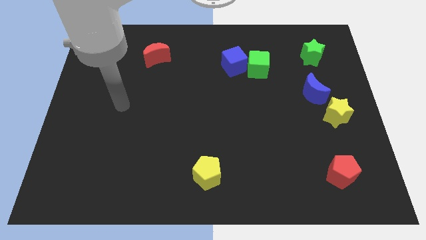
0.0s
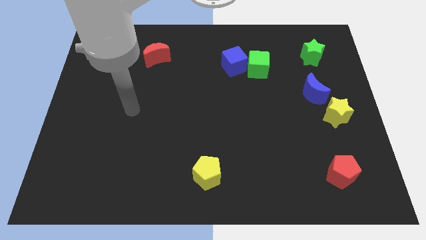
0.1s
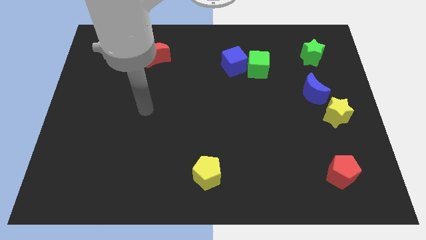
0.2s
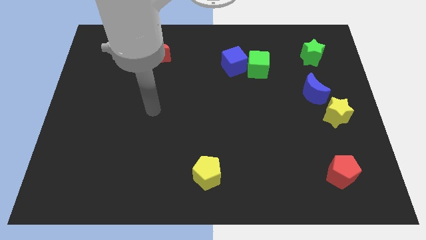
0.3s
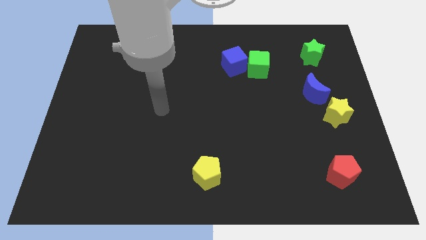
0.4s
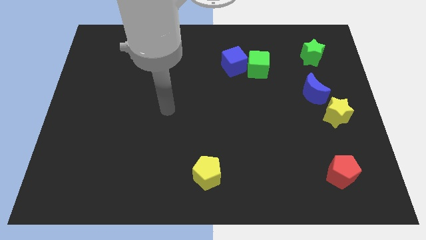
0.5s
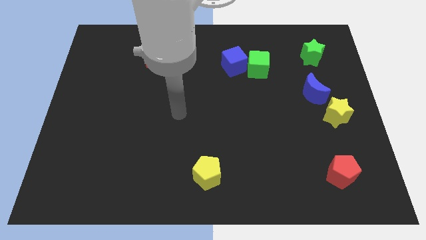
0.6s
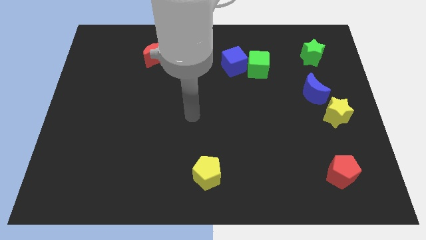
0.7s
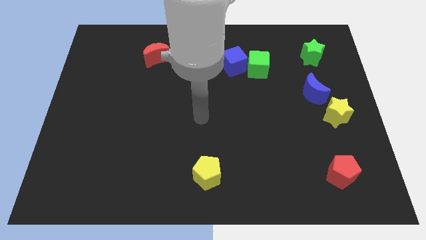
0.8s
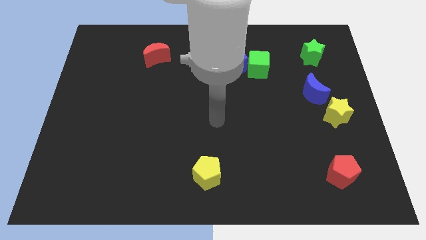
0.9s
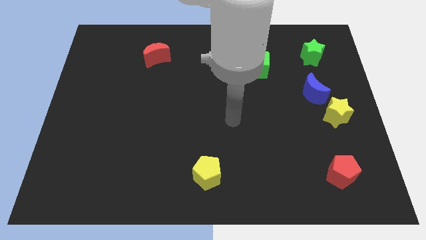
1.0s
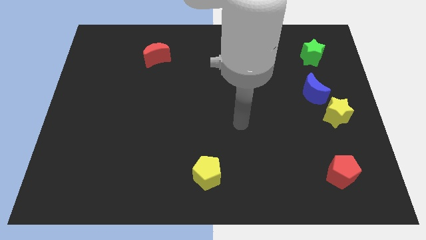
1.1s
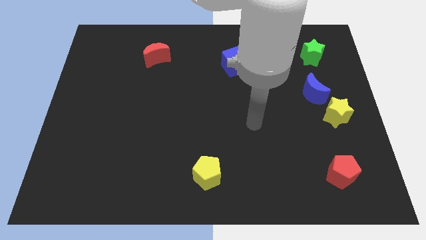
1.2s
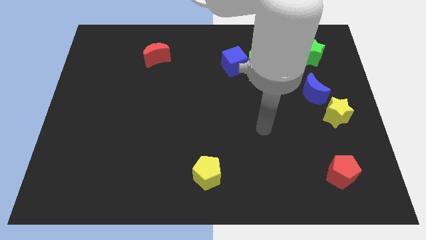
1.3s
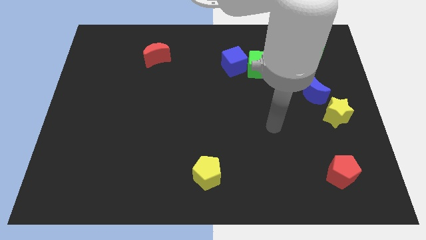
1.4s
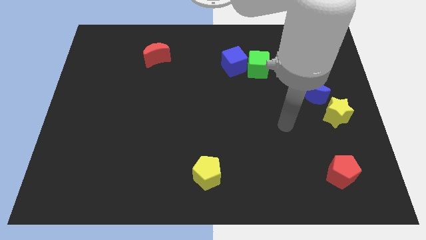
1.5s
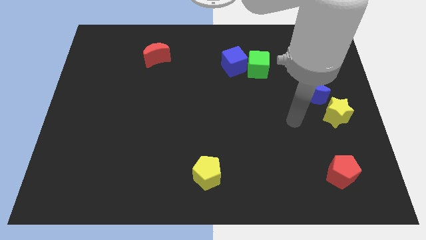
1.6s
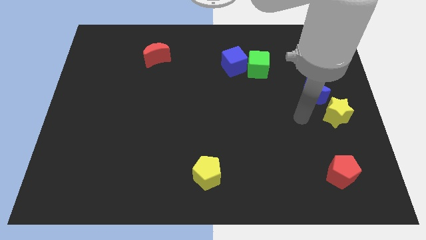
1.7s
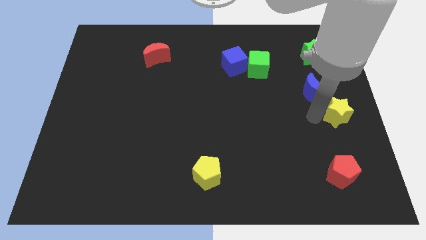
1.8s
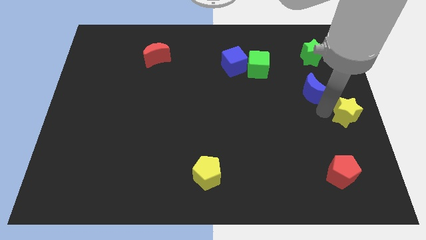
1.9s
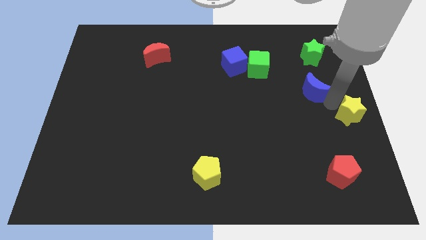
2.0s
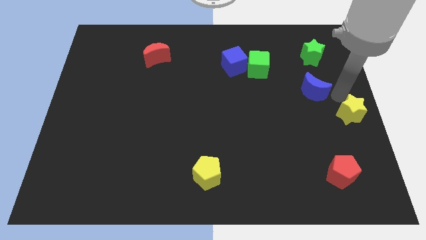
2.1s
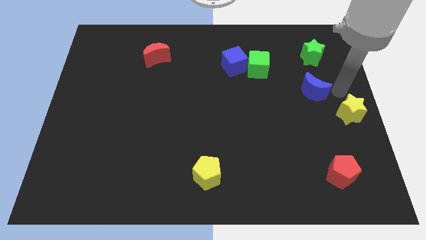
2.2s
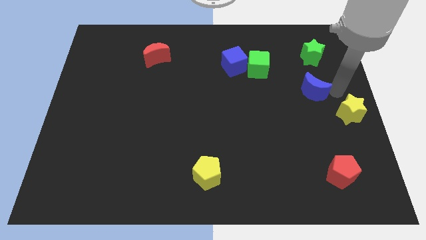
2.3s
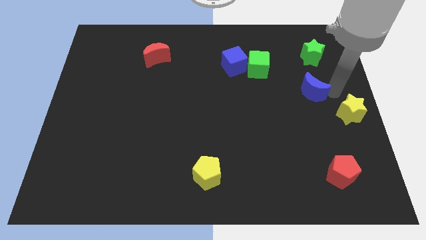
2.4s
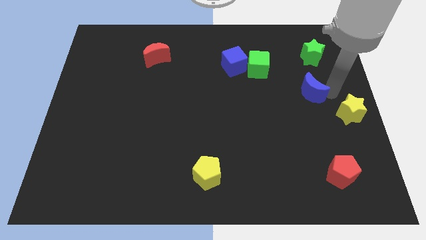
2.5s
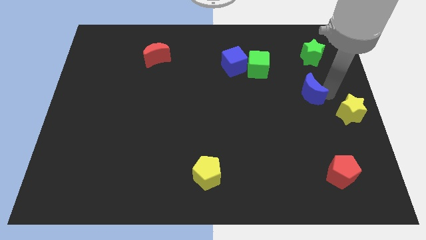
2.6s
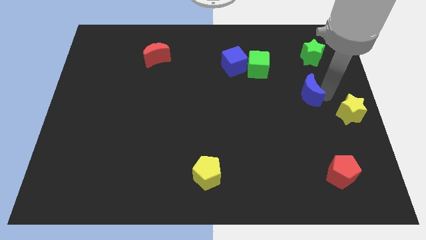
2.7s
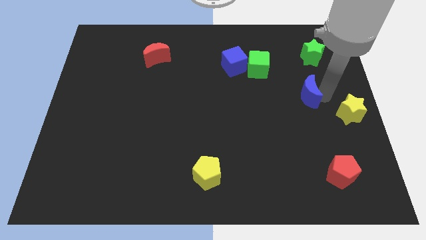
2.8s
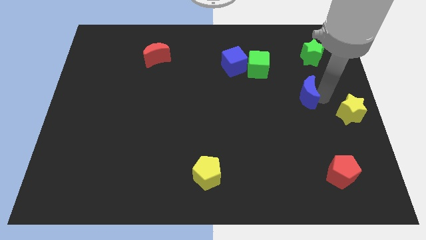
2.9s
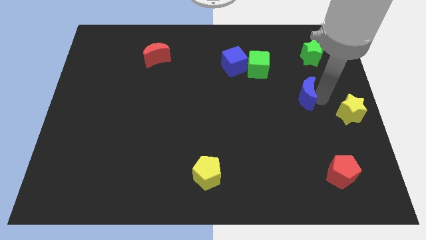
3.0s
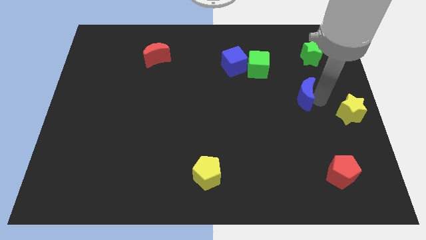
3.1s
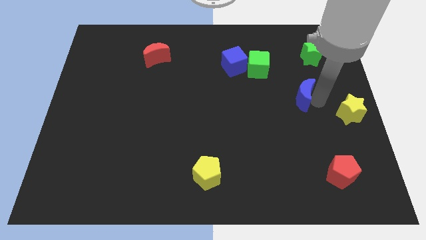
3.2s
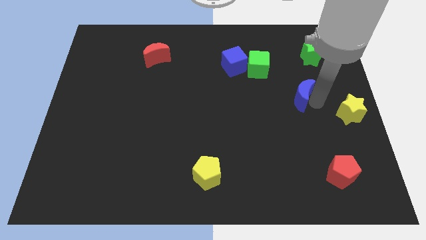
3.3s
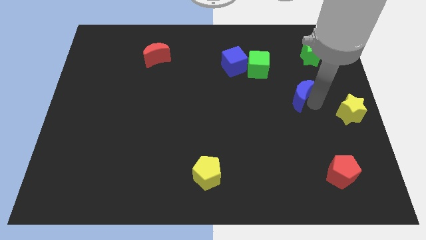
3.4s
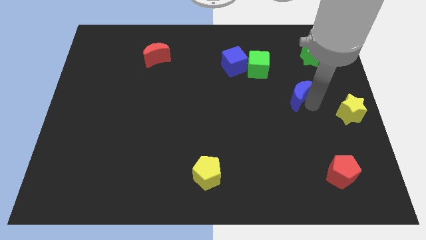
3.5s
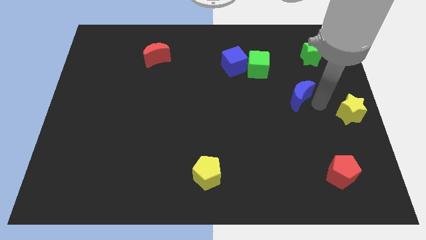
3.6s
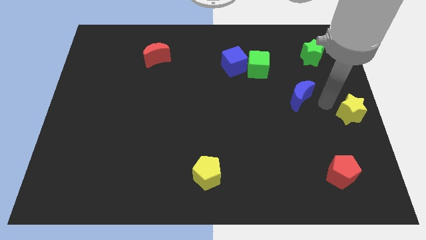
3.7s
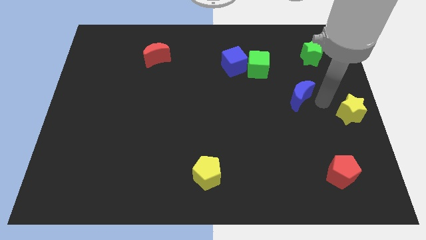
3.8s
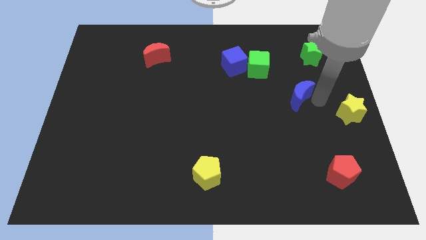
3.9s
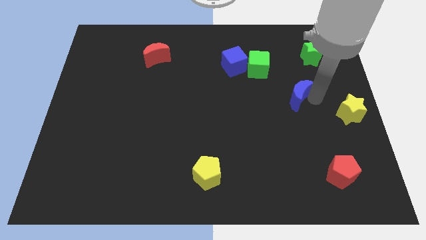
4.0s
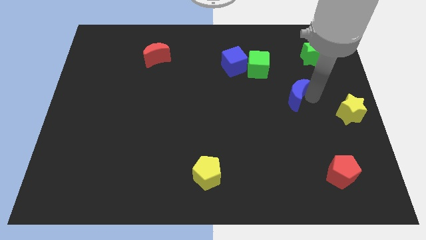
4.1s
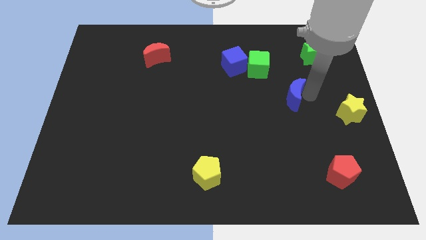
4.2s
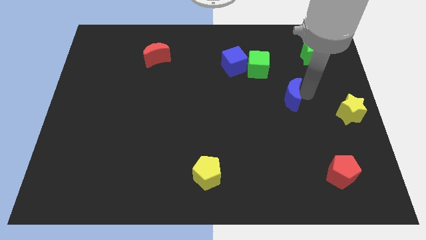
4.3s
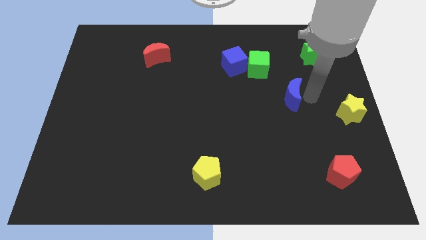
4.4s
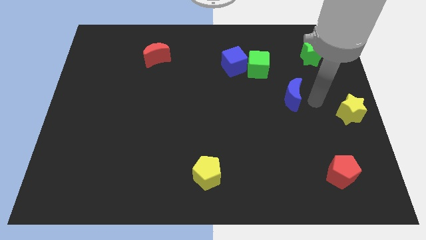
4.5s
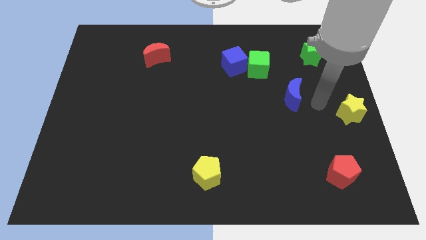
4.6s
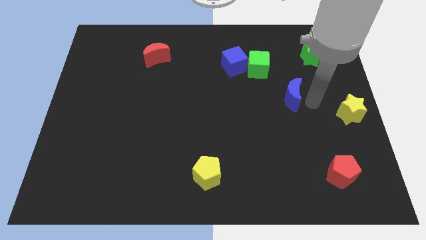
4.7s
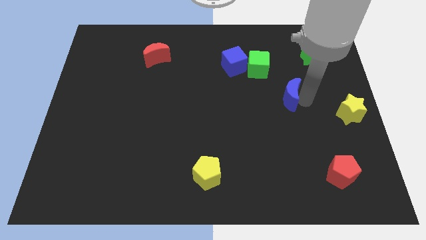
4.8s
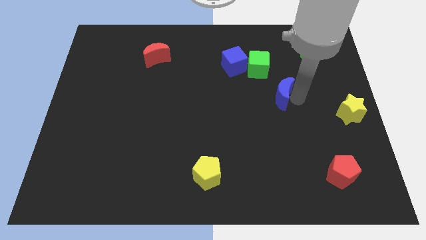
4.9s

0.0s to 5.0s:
move the blue moon left a bit

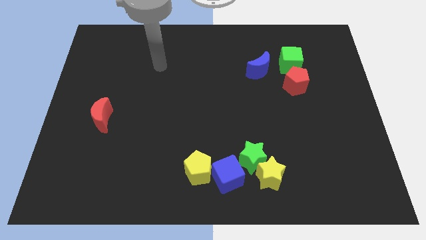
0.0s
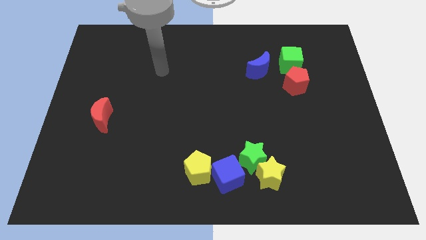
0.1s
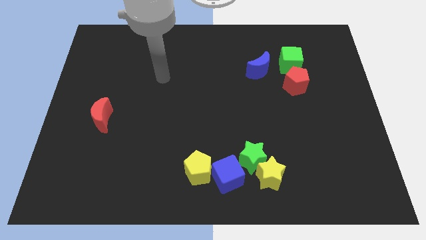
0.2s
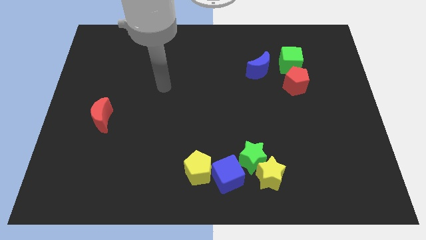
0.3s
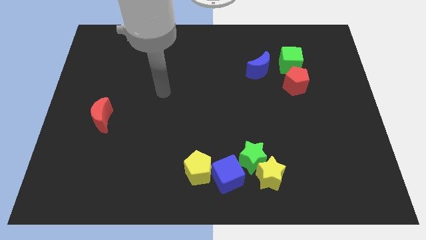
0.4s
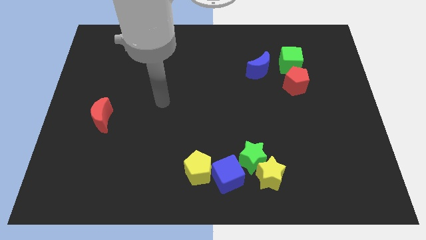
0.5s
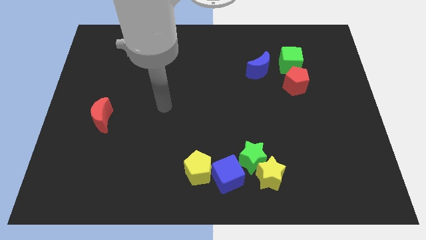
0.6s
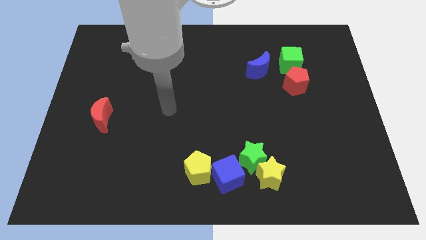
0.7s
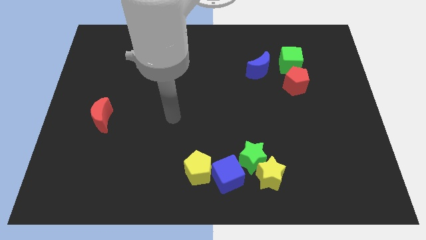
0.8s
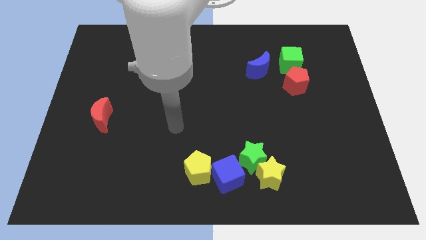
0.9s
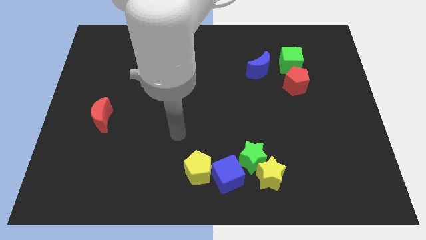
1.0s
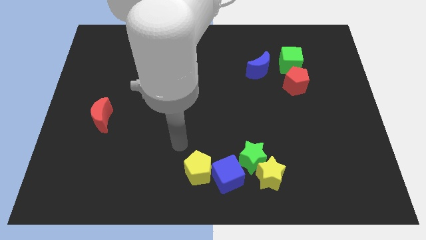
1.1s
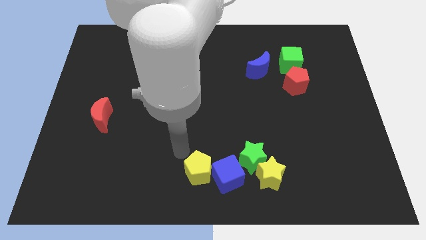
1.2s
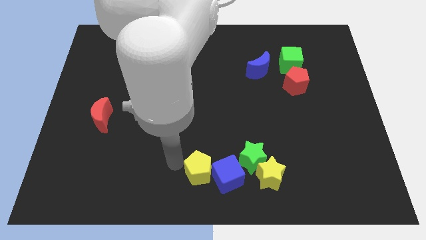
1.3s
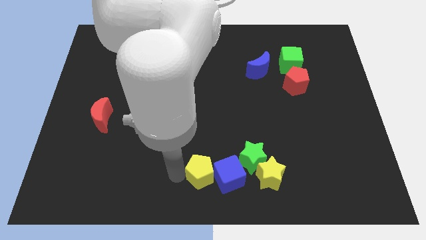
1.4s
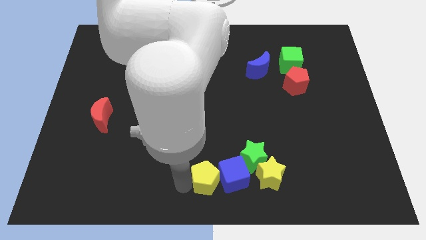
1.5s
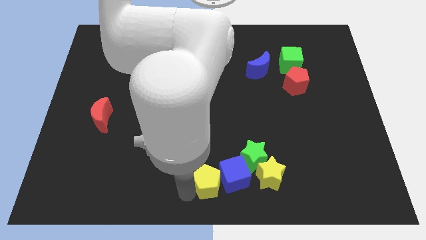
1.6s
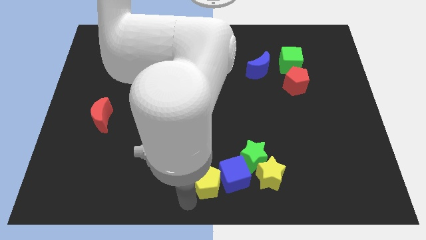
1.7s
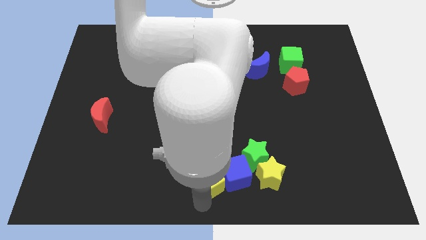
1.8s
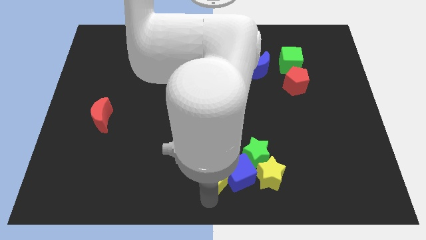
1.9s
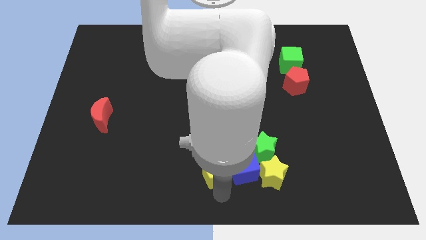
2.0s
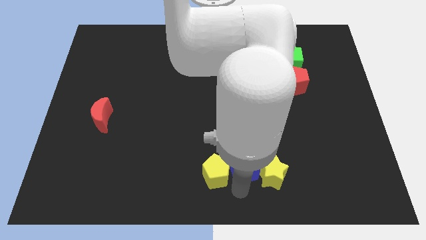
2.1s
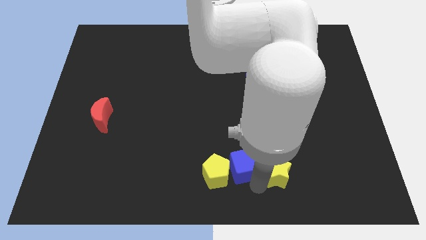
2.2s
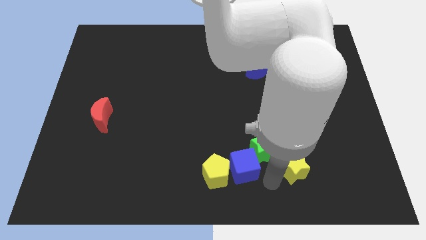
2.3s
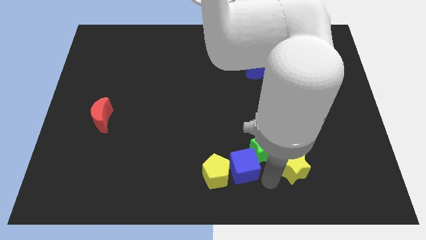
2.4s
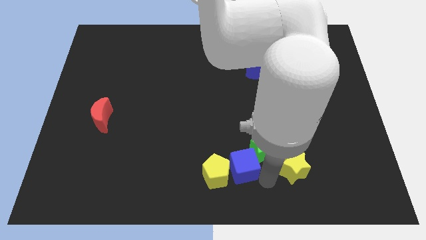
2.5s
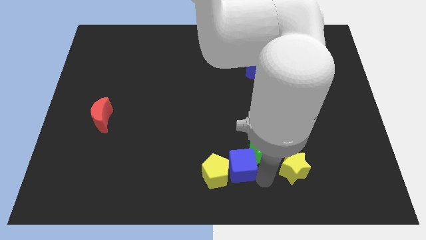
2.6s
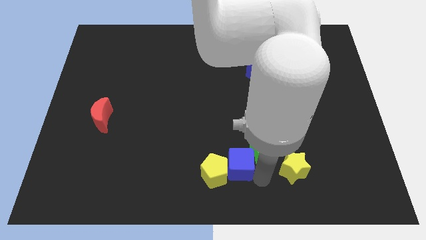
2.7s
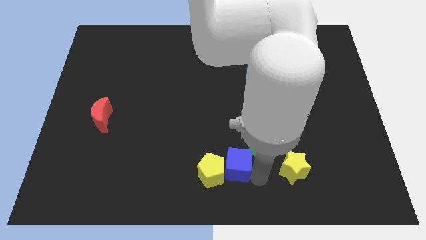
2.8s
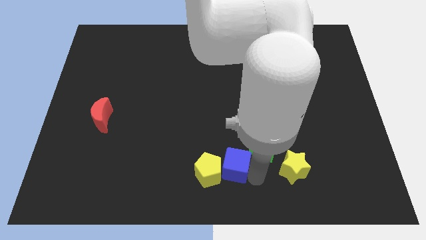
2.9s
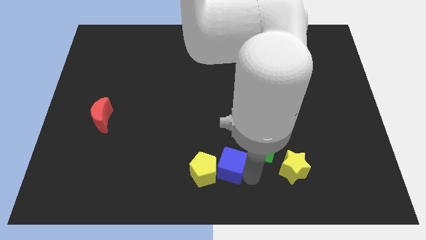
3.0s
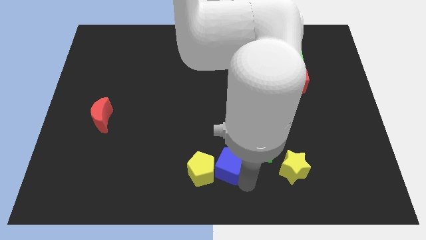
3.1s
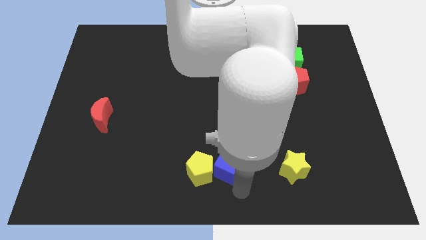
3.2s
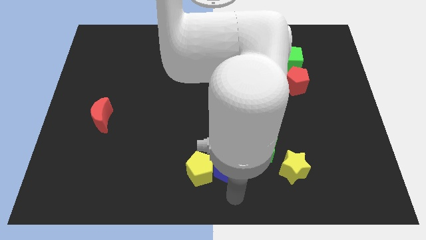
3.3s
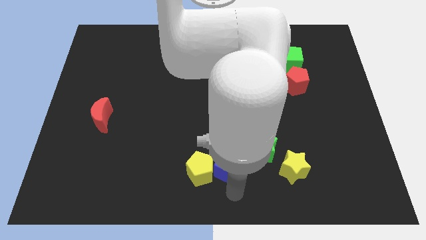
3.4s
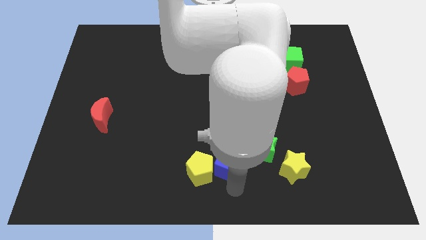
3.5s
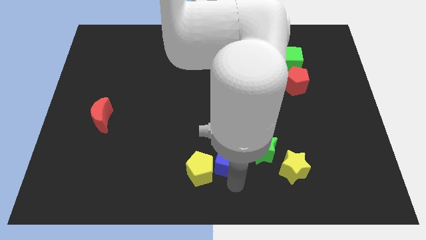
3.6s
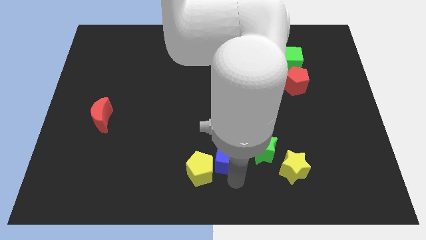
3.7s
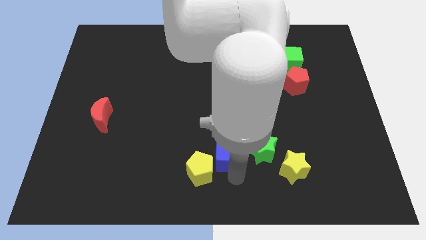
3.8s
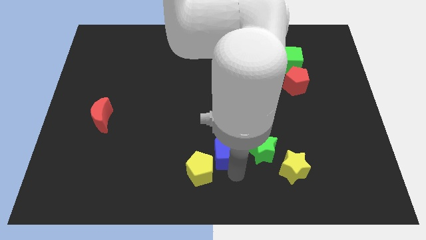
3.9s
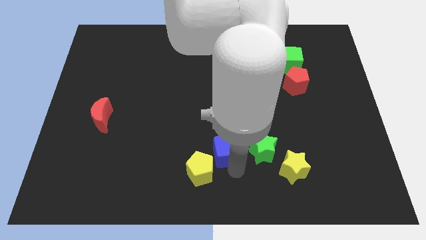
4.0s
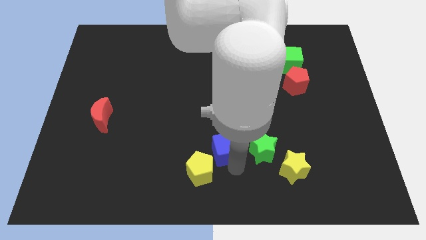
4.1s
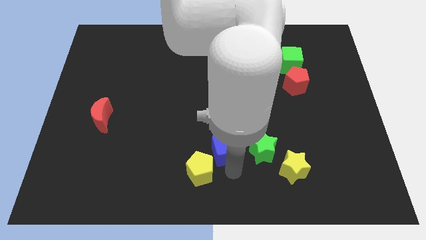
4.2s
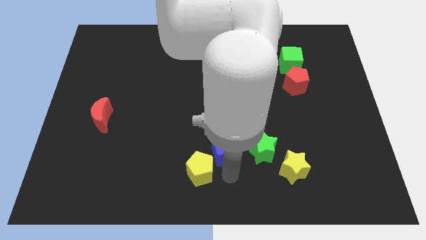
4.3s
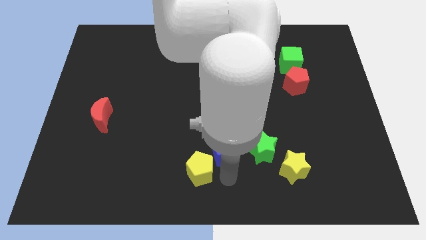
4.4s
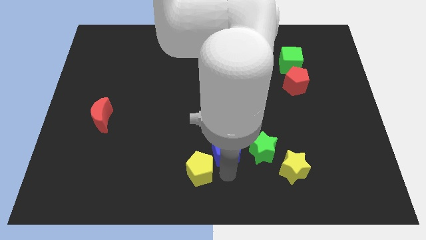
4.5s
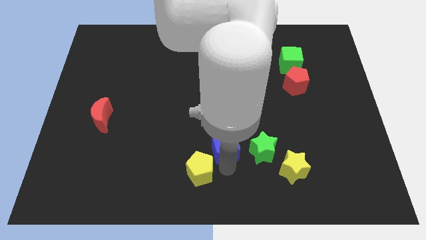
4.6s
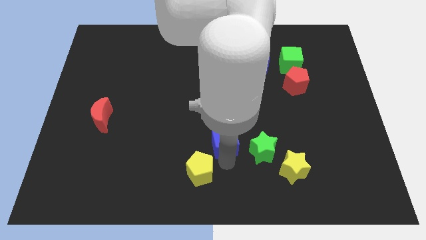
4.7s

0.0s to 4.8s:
push the blue cube a little bit upwards
